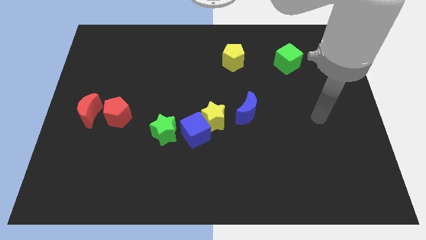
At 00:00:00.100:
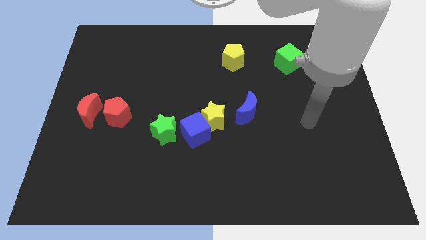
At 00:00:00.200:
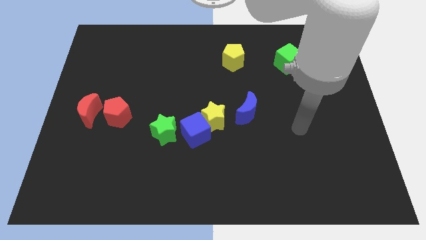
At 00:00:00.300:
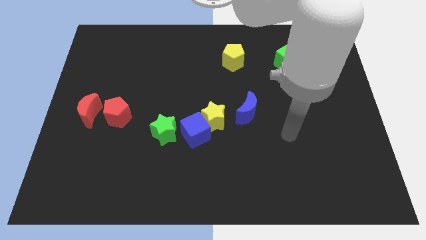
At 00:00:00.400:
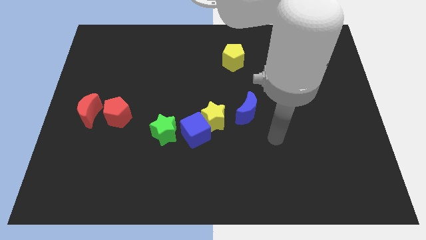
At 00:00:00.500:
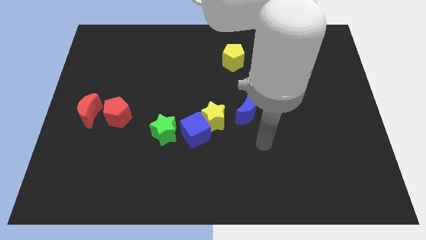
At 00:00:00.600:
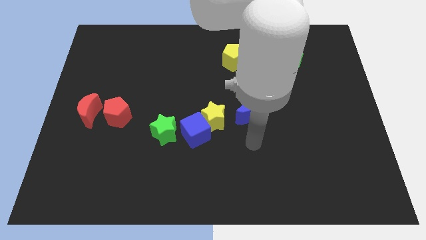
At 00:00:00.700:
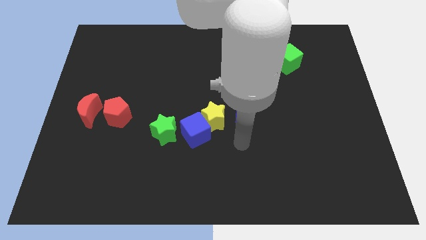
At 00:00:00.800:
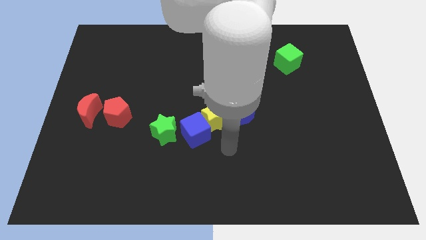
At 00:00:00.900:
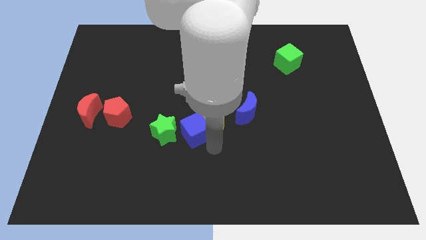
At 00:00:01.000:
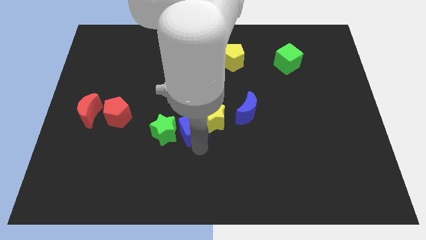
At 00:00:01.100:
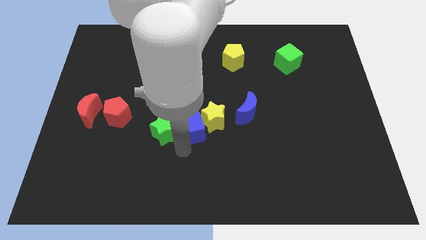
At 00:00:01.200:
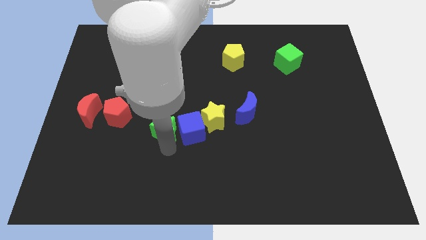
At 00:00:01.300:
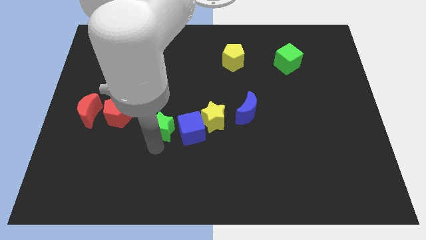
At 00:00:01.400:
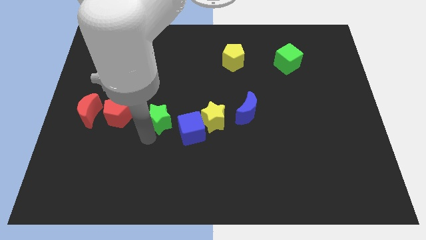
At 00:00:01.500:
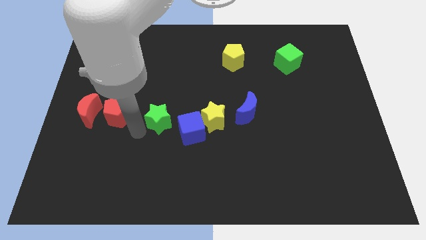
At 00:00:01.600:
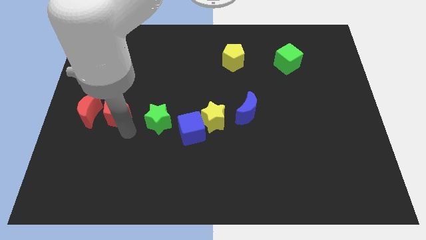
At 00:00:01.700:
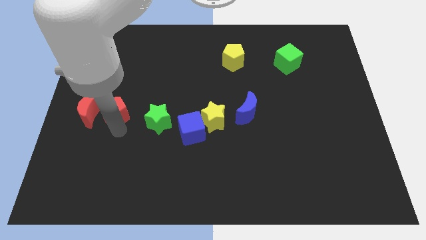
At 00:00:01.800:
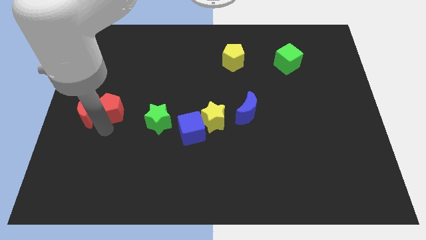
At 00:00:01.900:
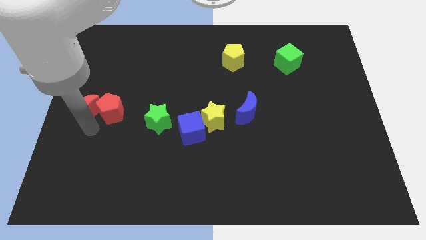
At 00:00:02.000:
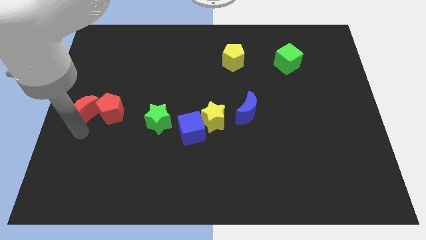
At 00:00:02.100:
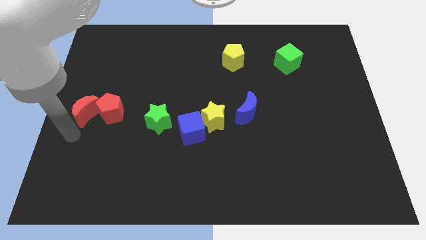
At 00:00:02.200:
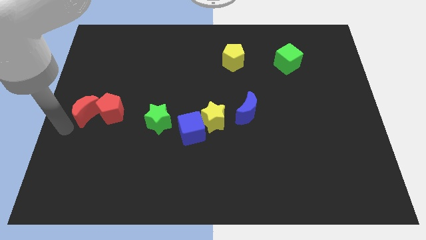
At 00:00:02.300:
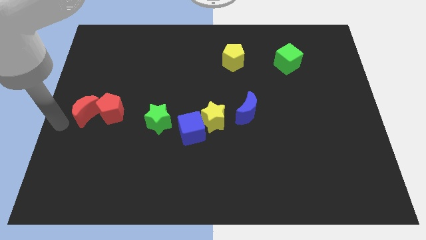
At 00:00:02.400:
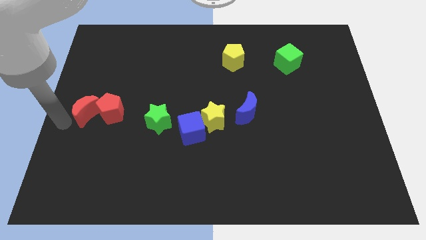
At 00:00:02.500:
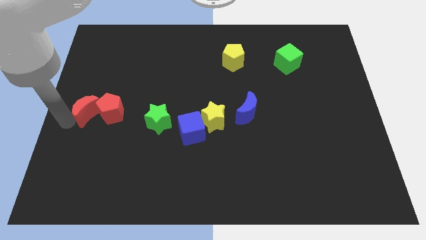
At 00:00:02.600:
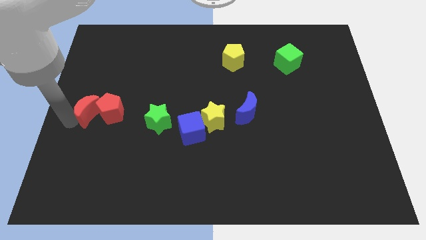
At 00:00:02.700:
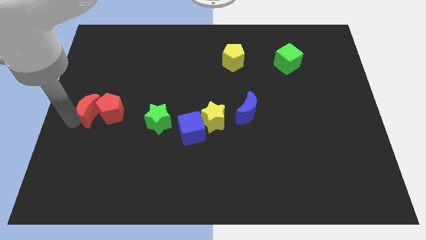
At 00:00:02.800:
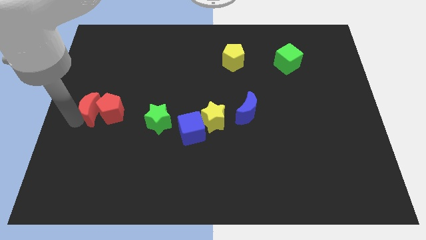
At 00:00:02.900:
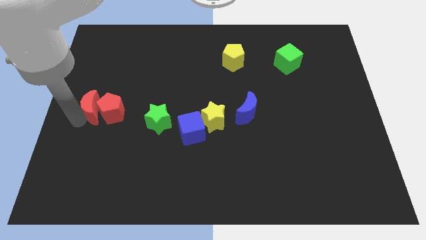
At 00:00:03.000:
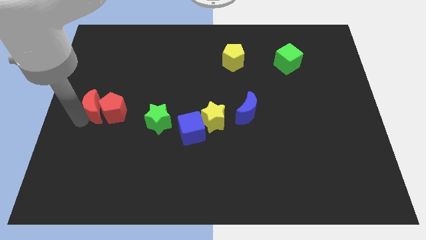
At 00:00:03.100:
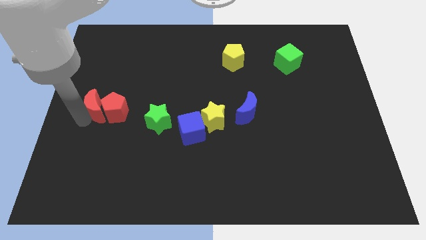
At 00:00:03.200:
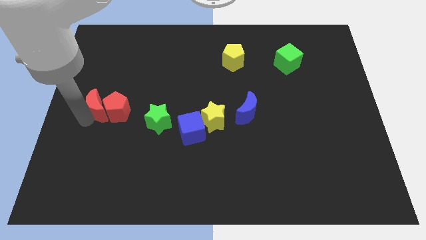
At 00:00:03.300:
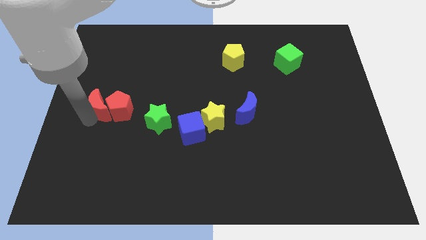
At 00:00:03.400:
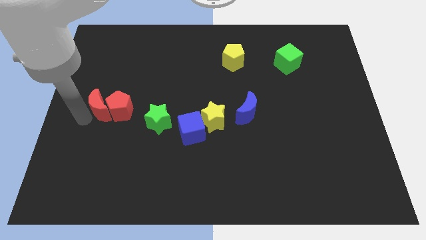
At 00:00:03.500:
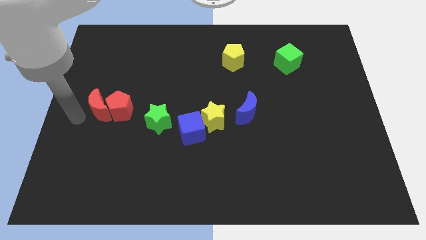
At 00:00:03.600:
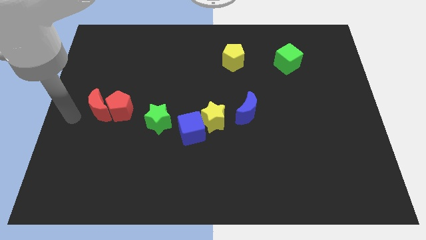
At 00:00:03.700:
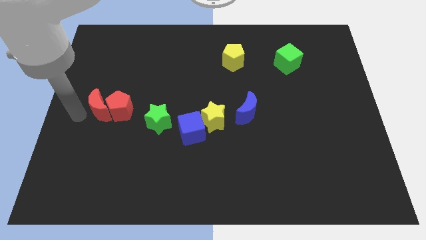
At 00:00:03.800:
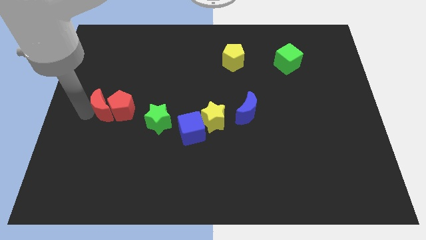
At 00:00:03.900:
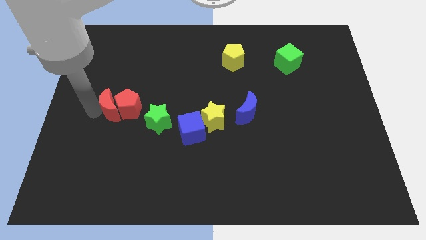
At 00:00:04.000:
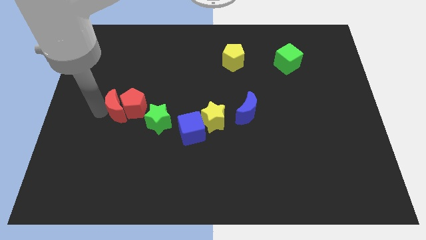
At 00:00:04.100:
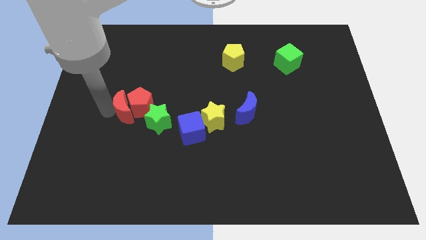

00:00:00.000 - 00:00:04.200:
slightly push the red moon right

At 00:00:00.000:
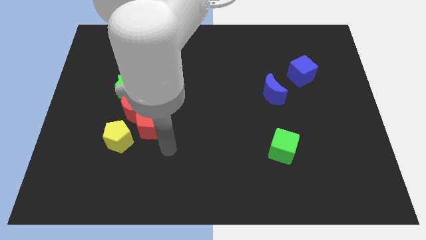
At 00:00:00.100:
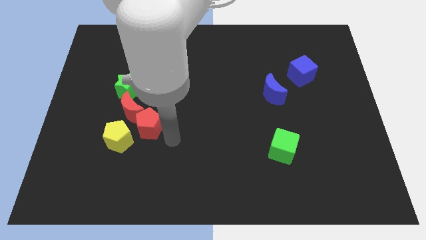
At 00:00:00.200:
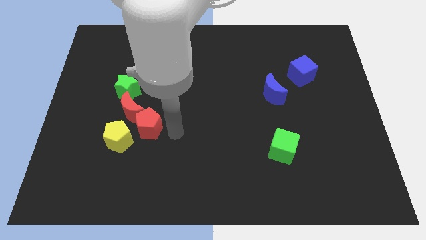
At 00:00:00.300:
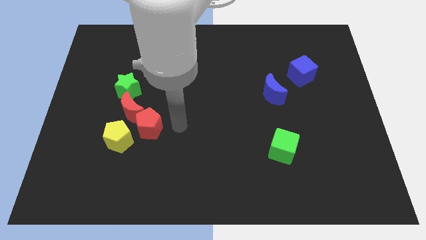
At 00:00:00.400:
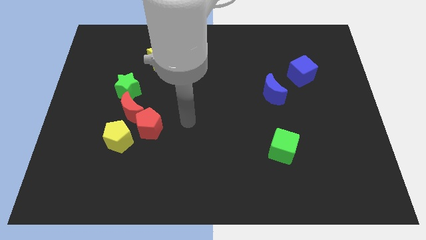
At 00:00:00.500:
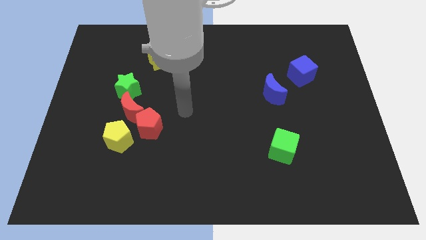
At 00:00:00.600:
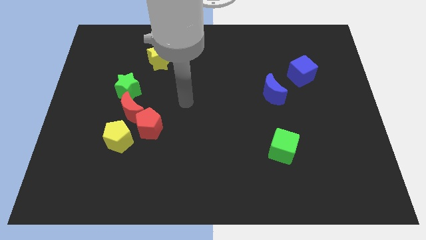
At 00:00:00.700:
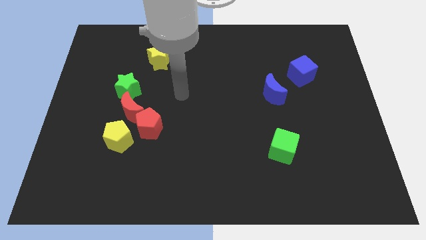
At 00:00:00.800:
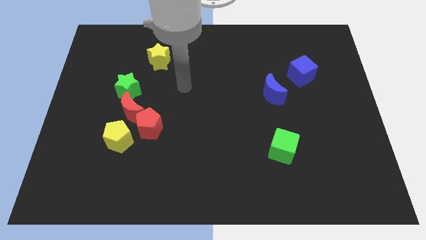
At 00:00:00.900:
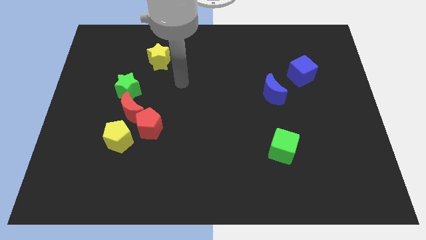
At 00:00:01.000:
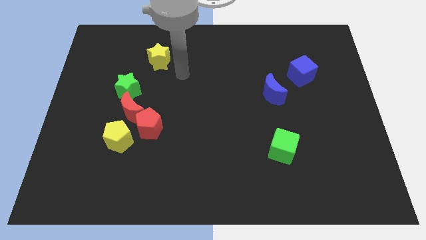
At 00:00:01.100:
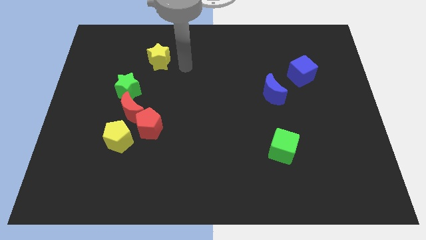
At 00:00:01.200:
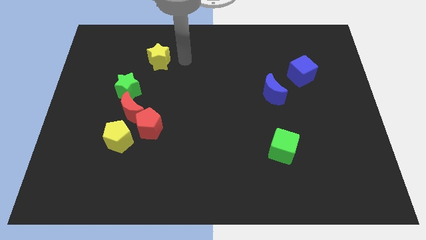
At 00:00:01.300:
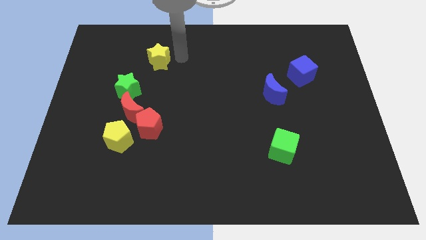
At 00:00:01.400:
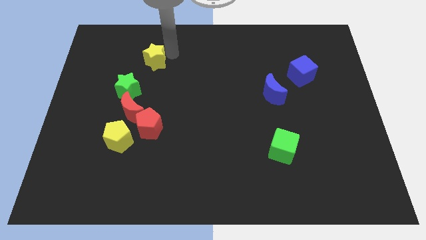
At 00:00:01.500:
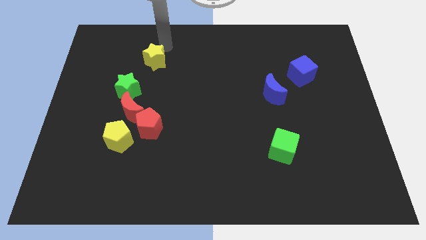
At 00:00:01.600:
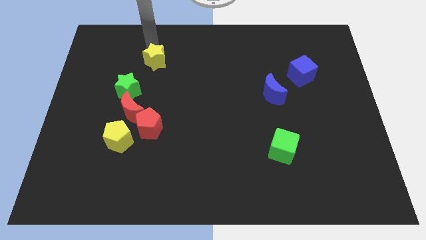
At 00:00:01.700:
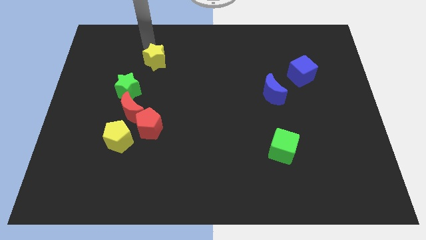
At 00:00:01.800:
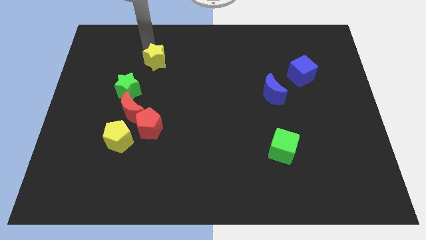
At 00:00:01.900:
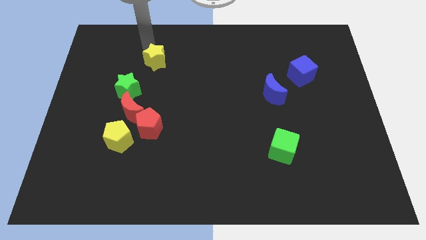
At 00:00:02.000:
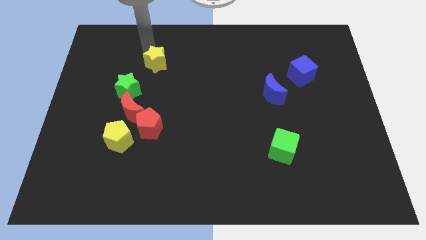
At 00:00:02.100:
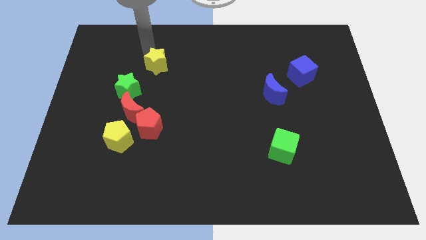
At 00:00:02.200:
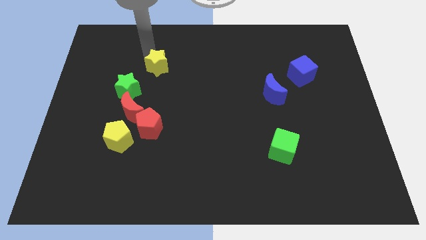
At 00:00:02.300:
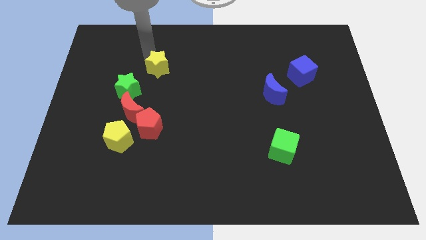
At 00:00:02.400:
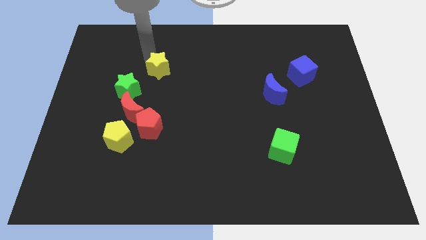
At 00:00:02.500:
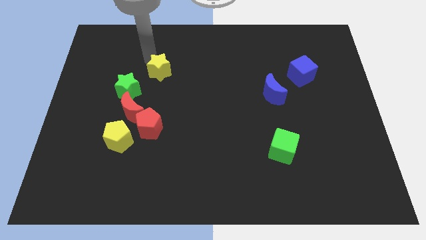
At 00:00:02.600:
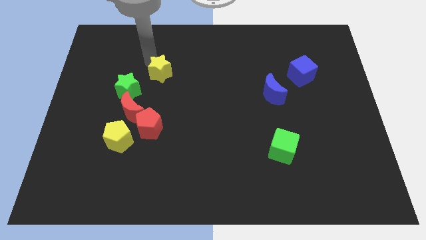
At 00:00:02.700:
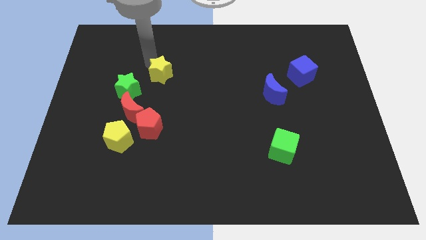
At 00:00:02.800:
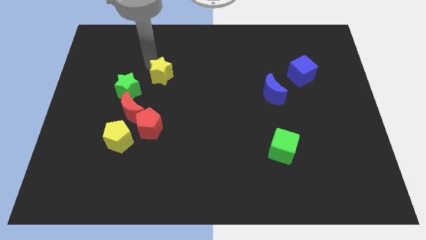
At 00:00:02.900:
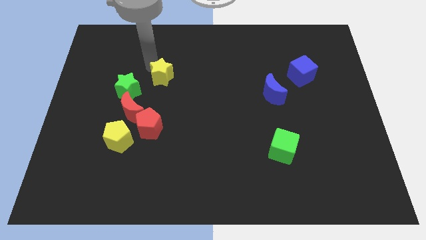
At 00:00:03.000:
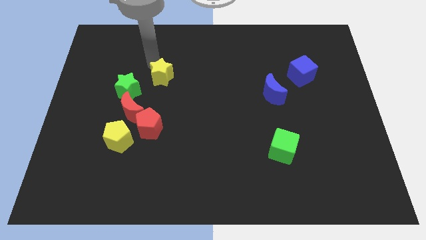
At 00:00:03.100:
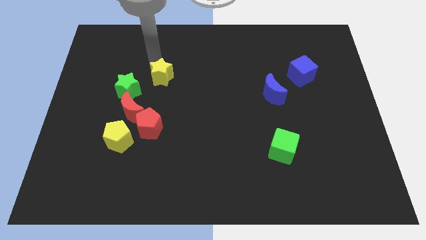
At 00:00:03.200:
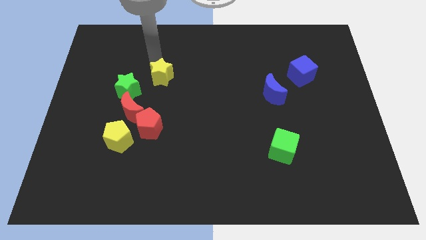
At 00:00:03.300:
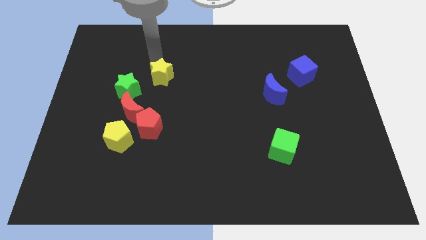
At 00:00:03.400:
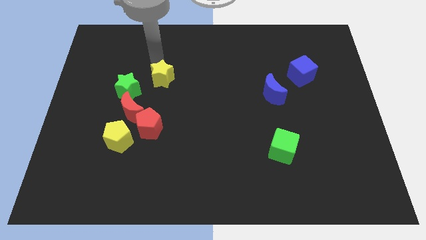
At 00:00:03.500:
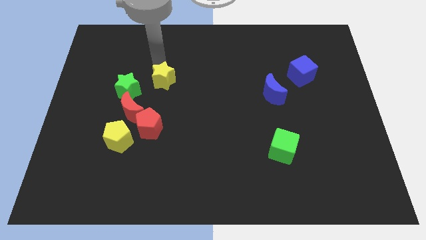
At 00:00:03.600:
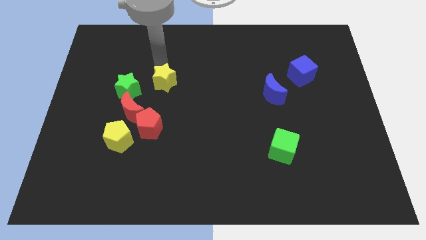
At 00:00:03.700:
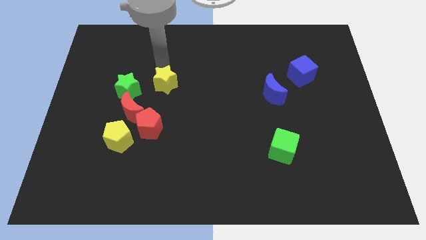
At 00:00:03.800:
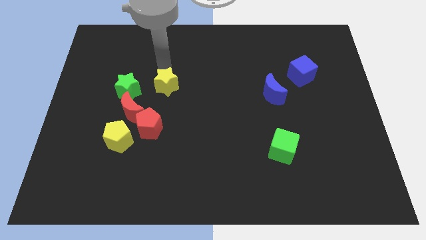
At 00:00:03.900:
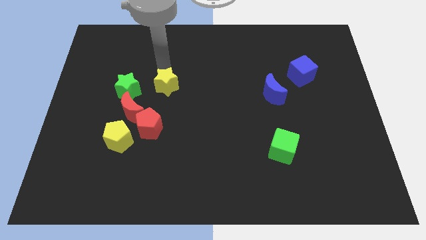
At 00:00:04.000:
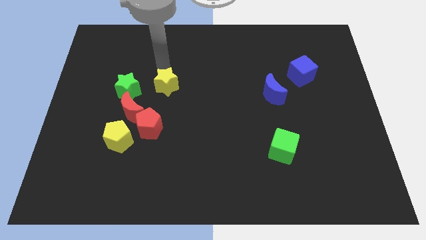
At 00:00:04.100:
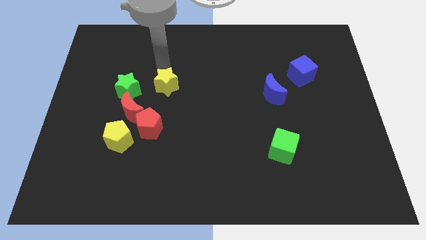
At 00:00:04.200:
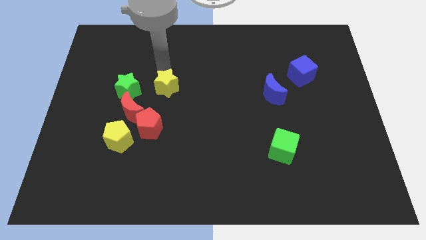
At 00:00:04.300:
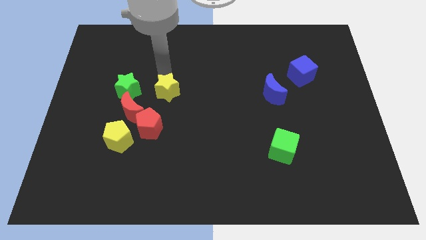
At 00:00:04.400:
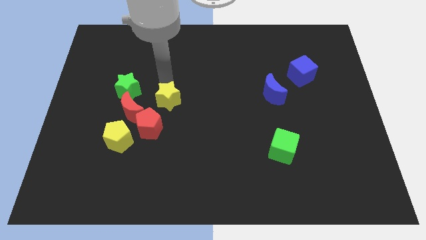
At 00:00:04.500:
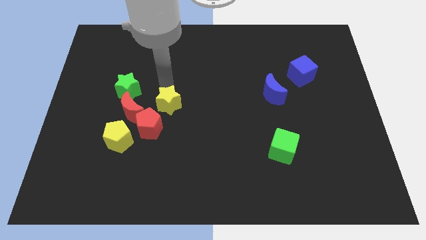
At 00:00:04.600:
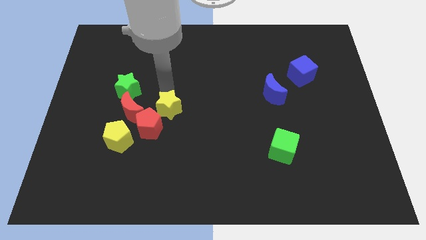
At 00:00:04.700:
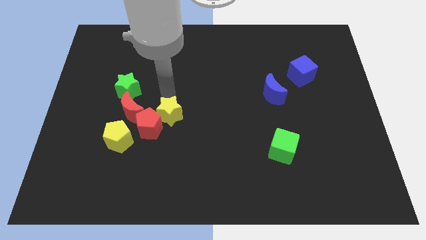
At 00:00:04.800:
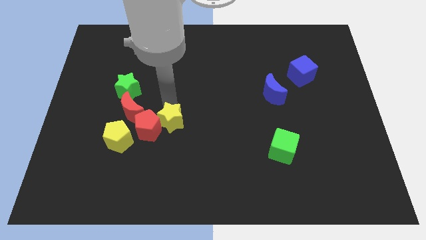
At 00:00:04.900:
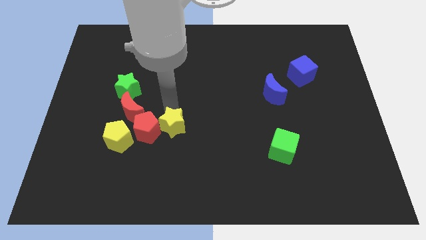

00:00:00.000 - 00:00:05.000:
slide the yellow star downwards
